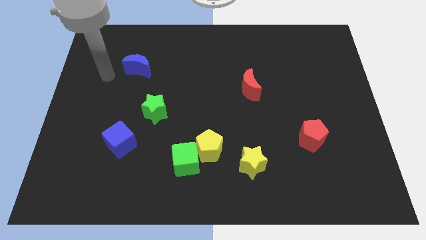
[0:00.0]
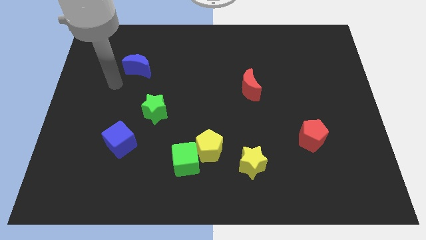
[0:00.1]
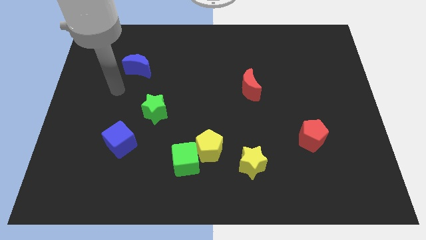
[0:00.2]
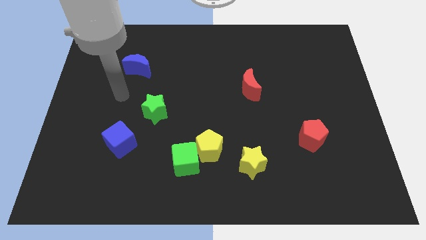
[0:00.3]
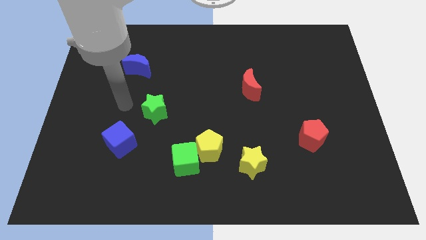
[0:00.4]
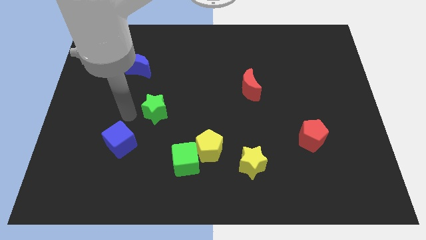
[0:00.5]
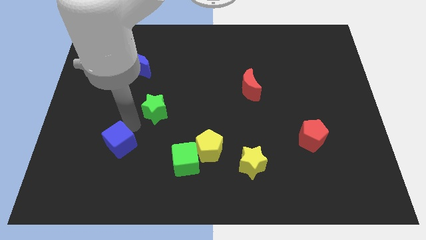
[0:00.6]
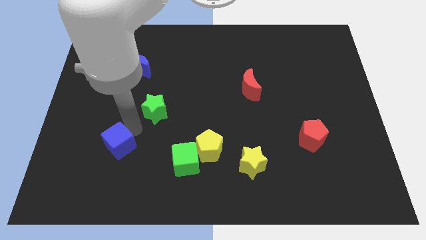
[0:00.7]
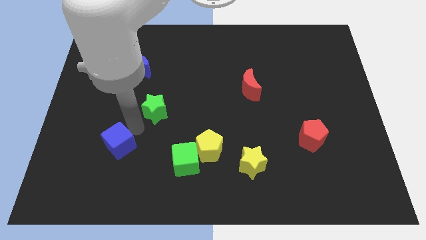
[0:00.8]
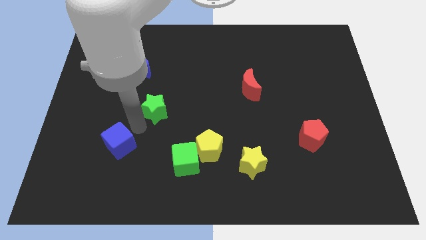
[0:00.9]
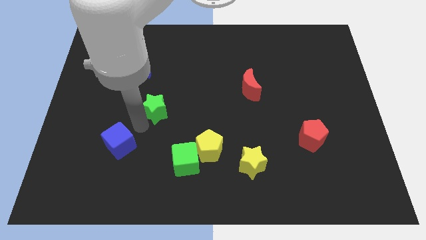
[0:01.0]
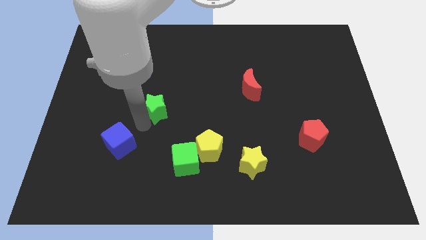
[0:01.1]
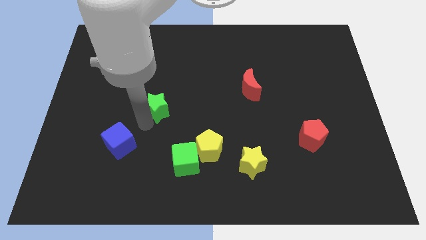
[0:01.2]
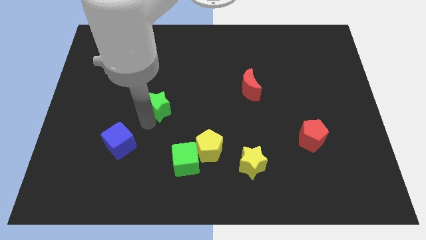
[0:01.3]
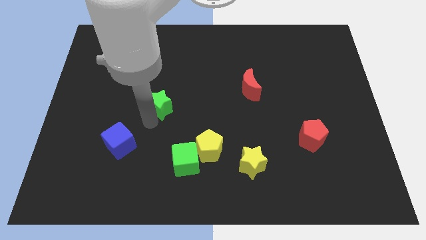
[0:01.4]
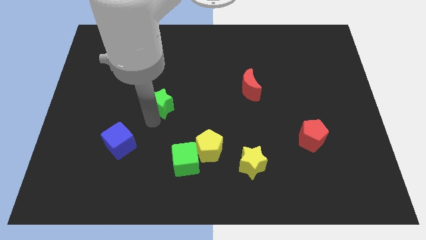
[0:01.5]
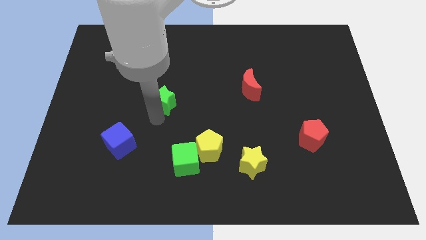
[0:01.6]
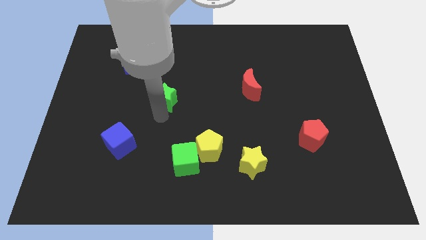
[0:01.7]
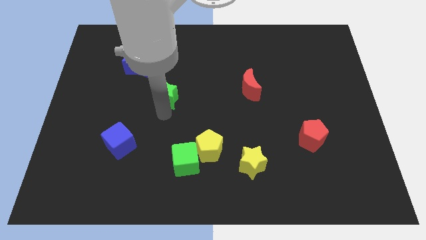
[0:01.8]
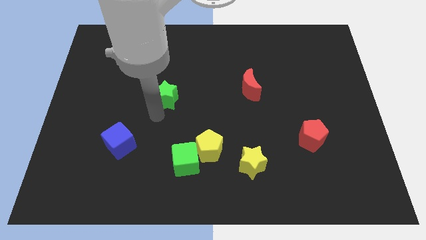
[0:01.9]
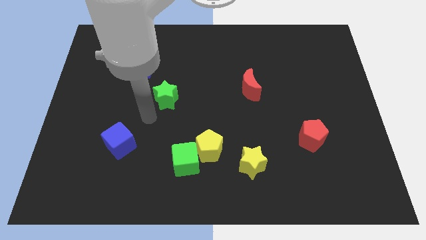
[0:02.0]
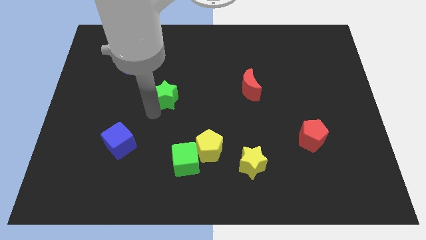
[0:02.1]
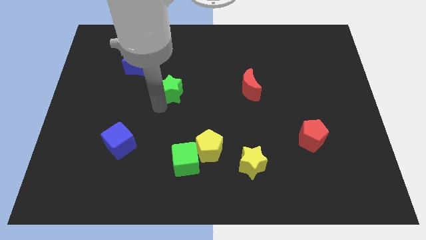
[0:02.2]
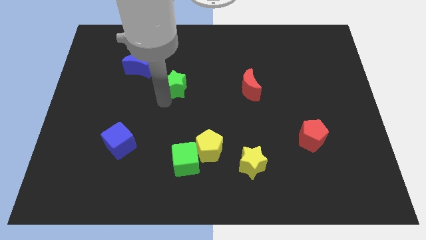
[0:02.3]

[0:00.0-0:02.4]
slightly push the green star up and to the right diagonally

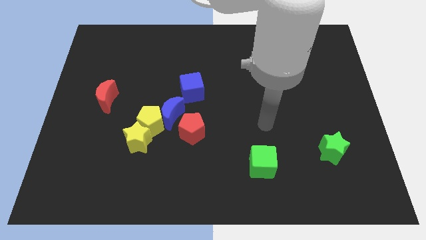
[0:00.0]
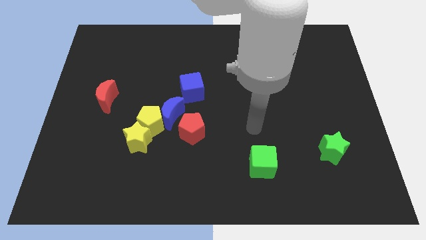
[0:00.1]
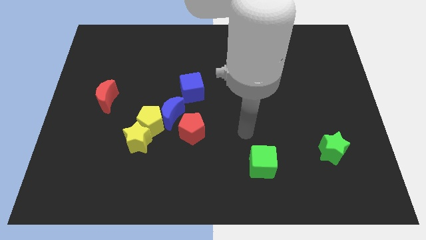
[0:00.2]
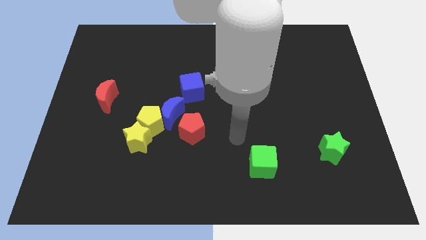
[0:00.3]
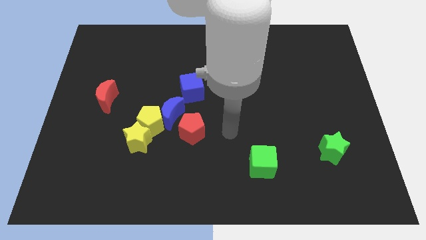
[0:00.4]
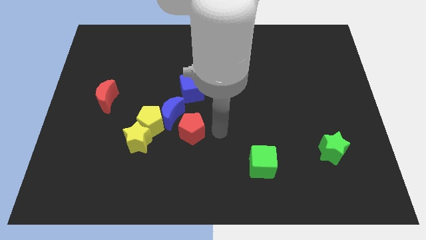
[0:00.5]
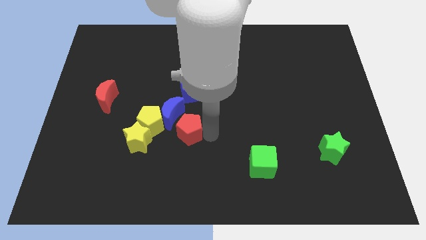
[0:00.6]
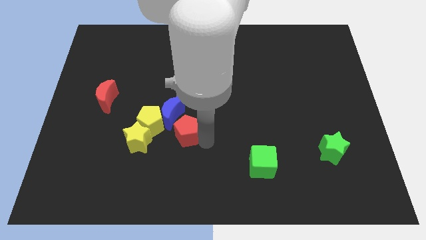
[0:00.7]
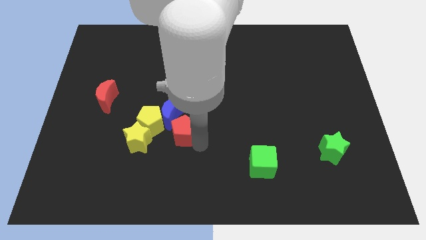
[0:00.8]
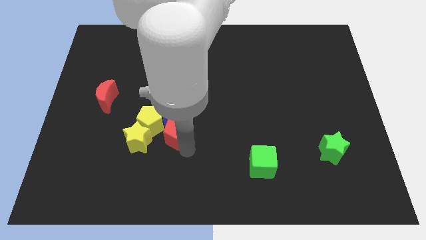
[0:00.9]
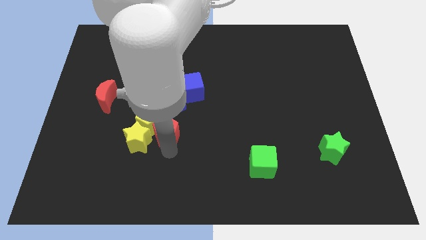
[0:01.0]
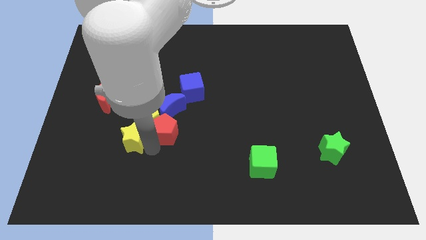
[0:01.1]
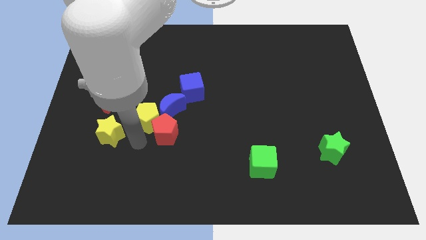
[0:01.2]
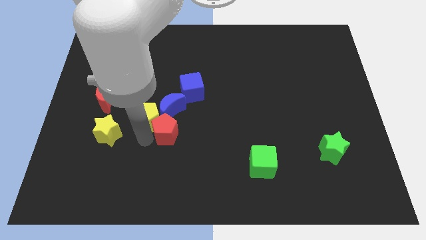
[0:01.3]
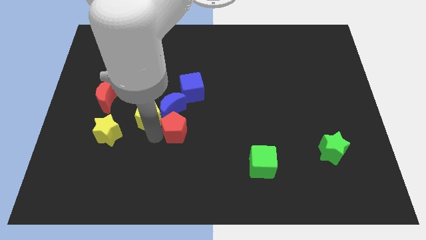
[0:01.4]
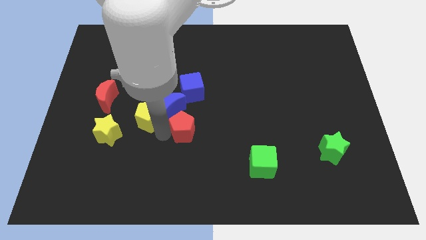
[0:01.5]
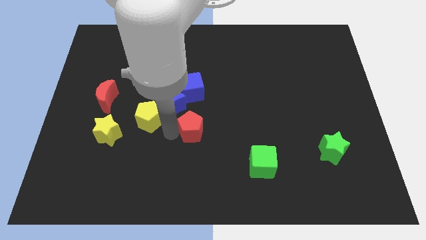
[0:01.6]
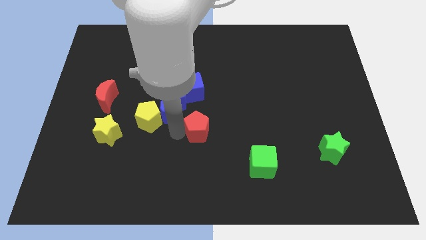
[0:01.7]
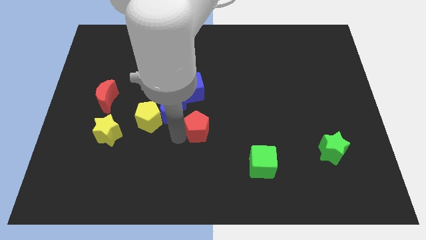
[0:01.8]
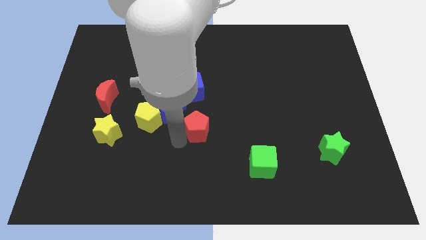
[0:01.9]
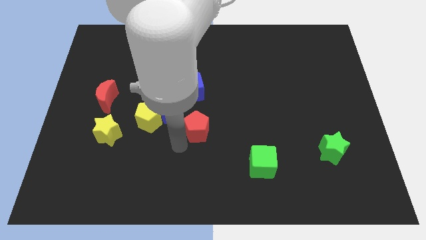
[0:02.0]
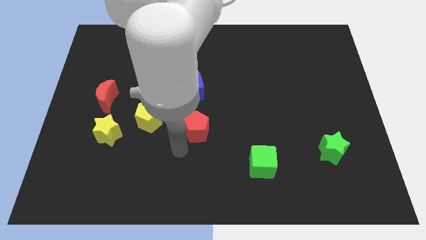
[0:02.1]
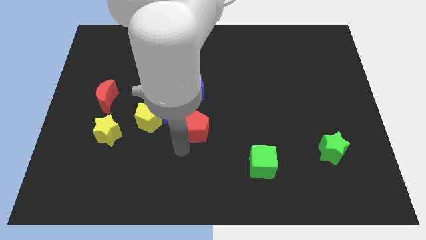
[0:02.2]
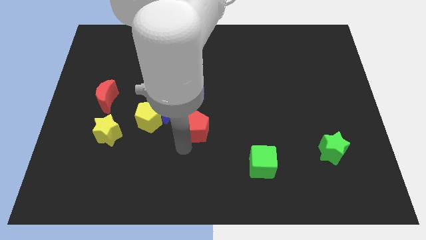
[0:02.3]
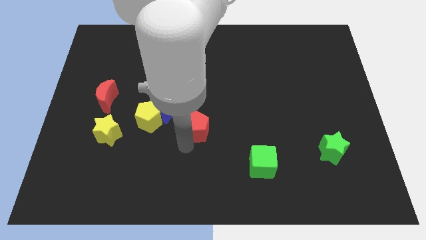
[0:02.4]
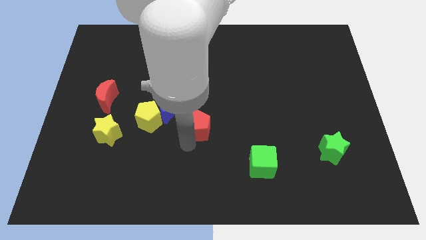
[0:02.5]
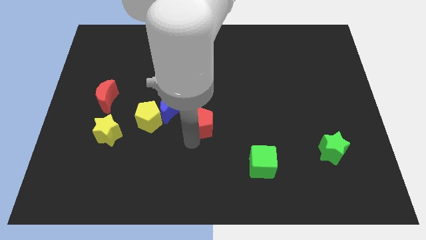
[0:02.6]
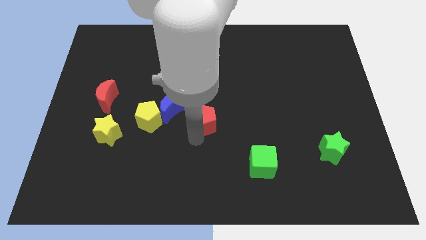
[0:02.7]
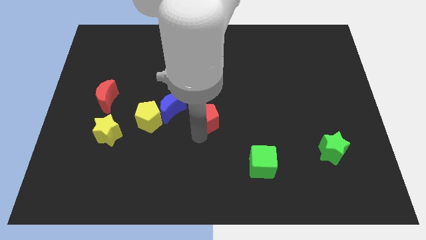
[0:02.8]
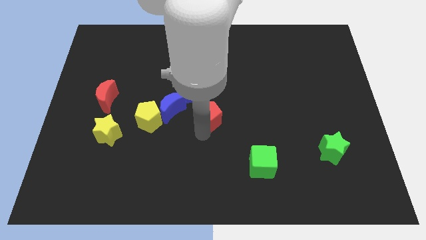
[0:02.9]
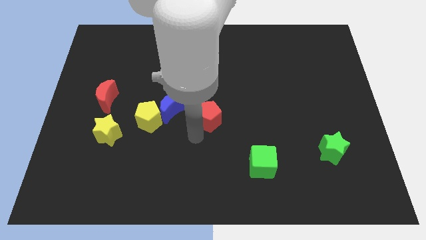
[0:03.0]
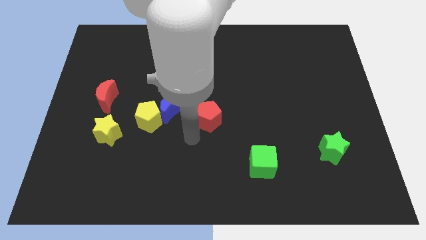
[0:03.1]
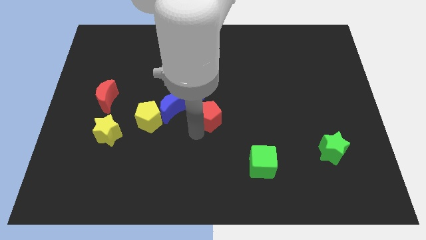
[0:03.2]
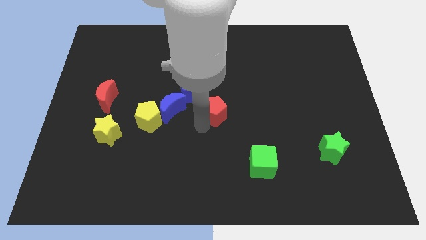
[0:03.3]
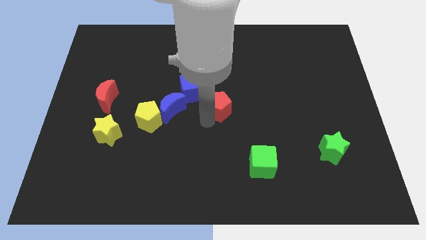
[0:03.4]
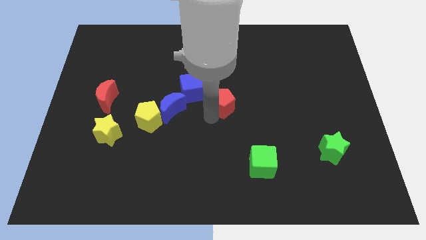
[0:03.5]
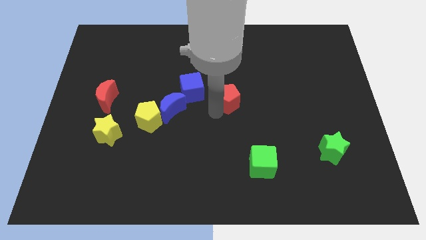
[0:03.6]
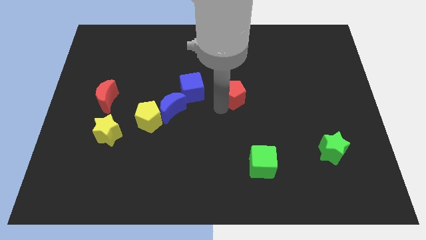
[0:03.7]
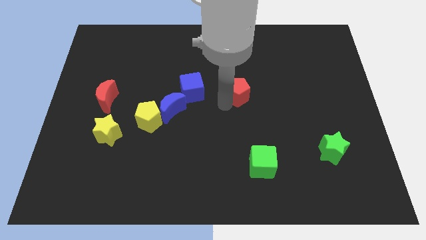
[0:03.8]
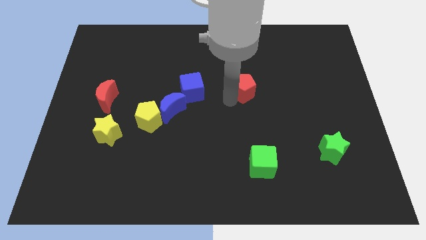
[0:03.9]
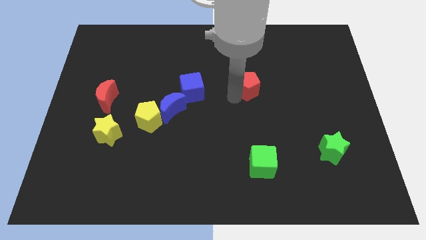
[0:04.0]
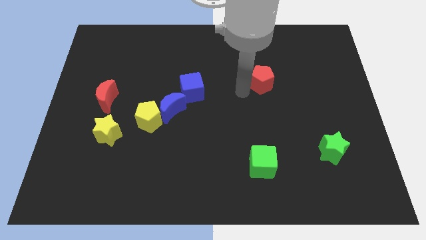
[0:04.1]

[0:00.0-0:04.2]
push the red pentagon upwards and then right

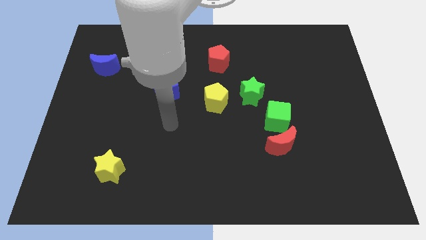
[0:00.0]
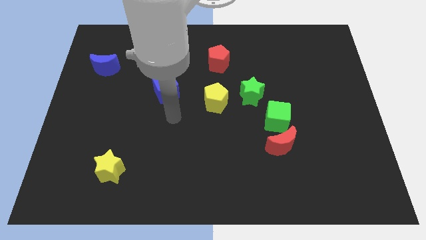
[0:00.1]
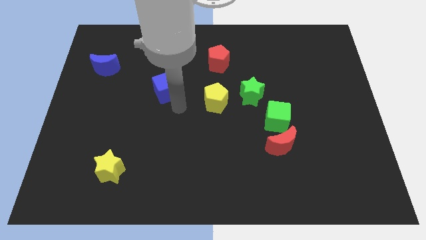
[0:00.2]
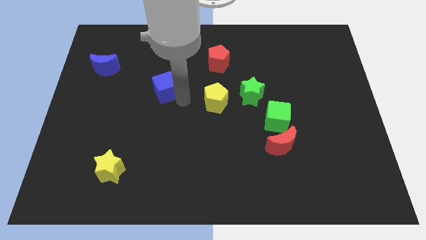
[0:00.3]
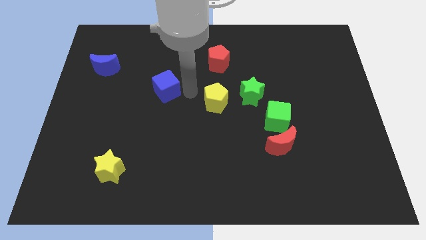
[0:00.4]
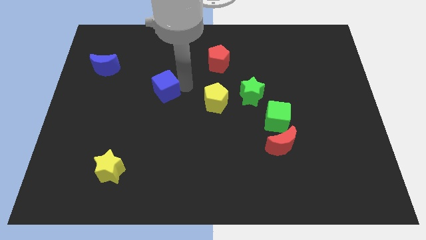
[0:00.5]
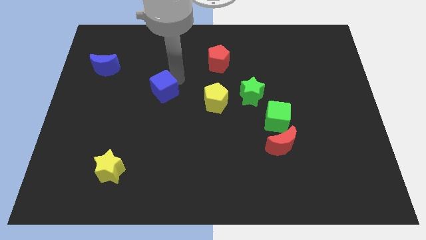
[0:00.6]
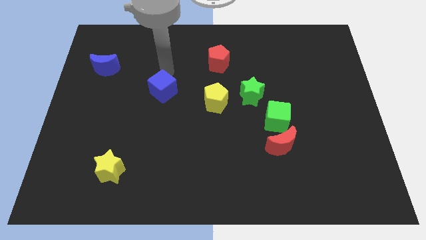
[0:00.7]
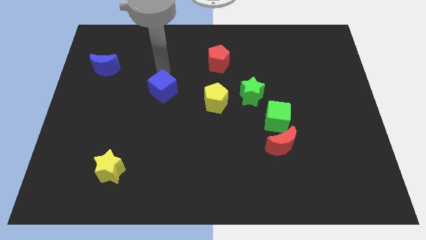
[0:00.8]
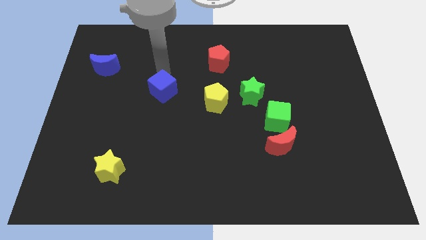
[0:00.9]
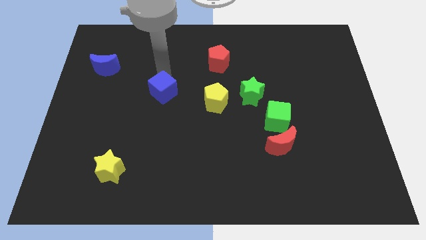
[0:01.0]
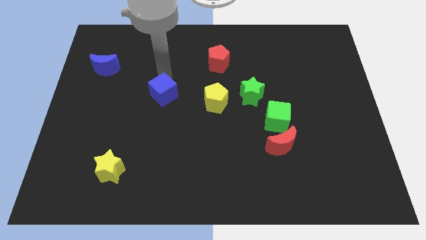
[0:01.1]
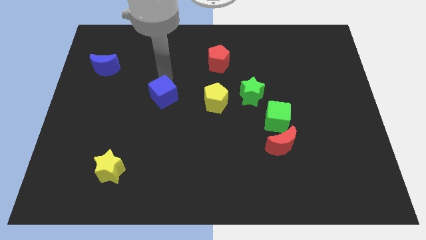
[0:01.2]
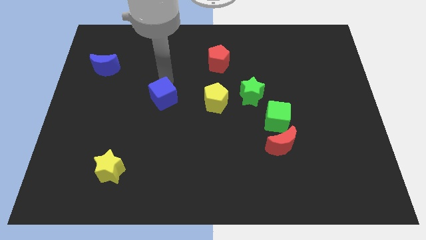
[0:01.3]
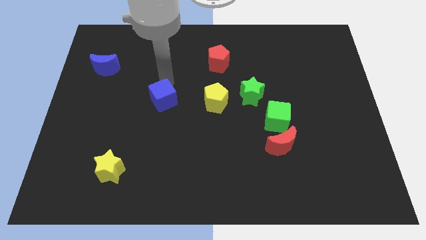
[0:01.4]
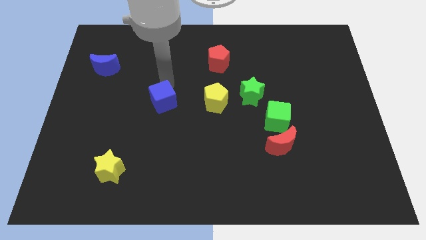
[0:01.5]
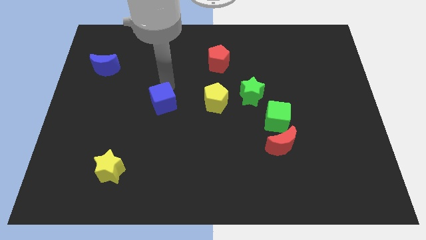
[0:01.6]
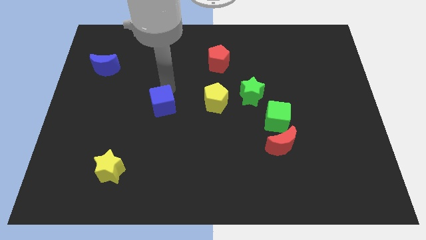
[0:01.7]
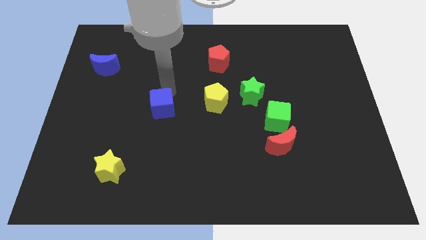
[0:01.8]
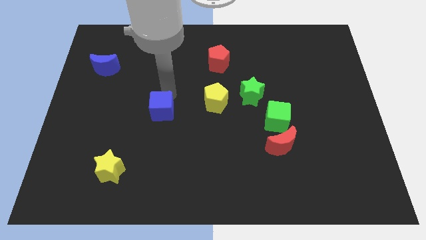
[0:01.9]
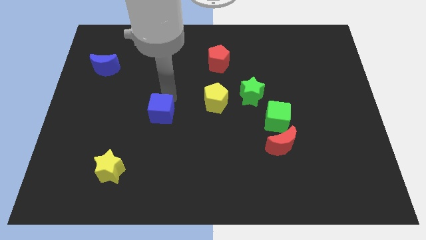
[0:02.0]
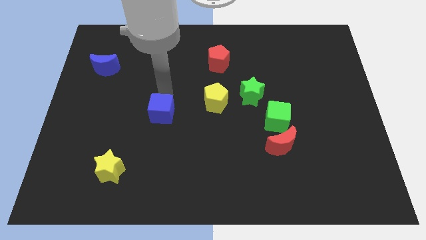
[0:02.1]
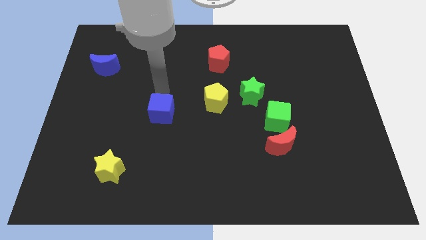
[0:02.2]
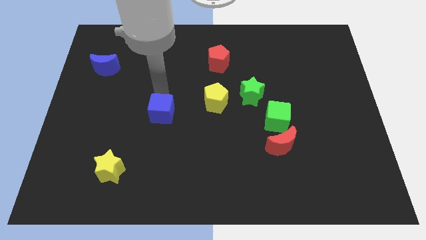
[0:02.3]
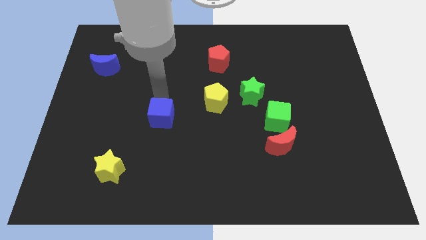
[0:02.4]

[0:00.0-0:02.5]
slide the blue cube a little down
